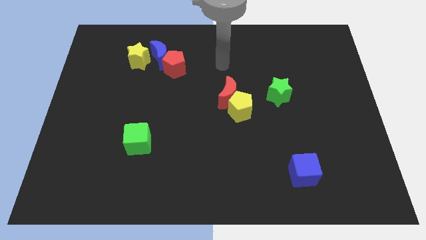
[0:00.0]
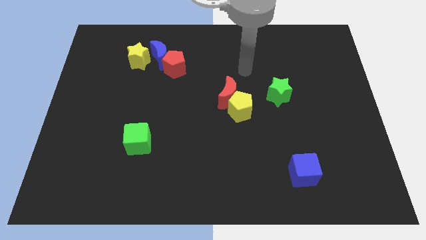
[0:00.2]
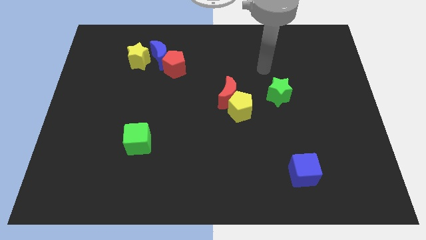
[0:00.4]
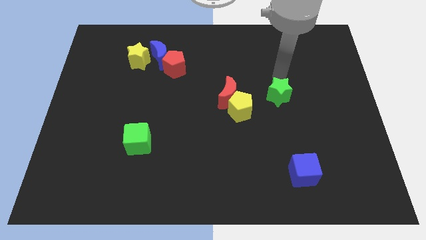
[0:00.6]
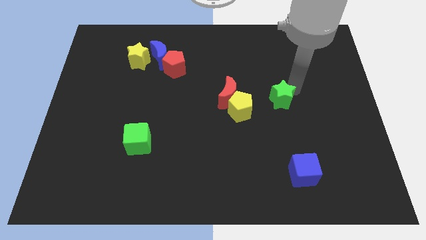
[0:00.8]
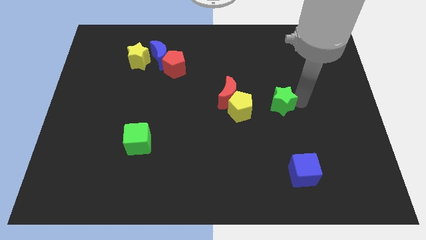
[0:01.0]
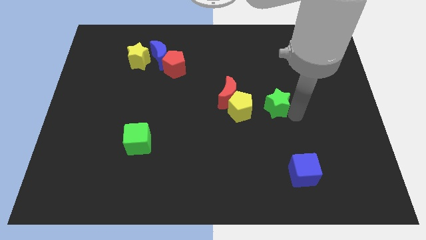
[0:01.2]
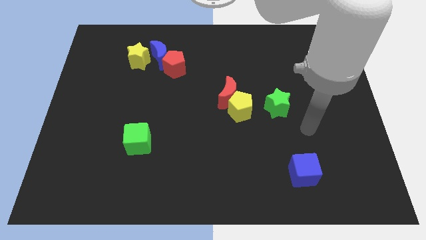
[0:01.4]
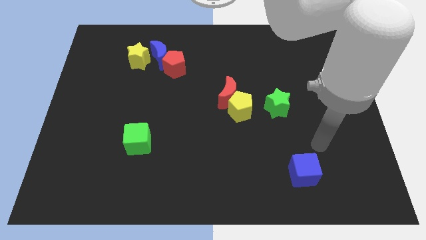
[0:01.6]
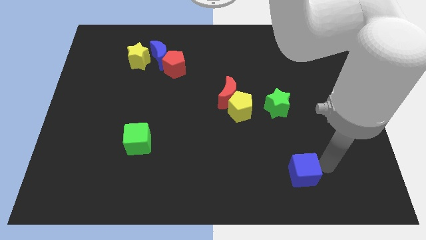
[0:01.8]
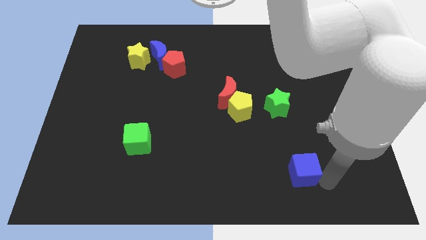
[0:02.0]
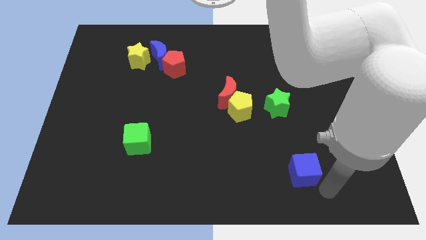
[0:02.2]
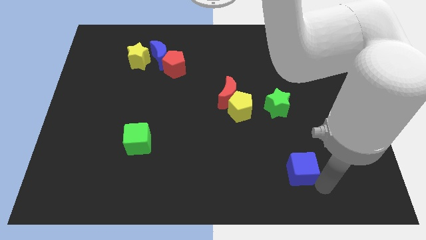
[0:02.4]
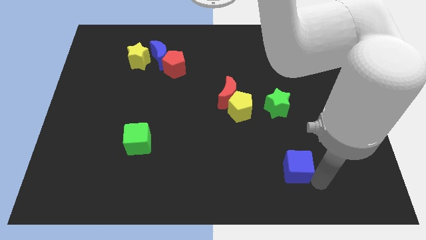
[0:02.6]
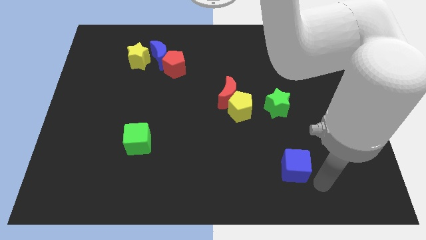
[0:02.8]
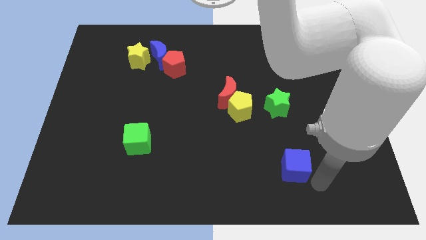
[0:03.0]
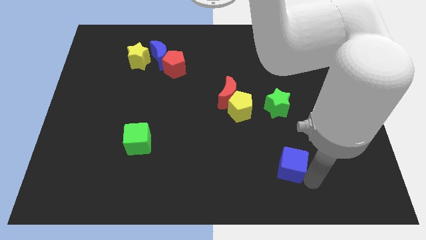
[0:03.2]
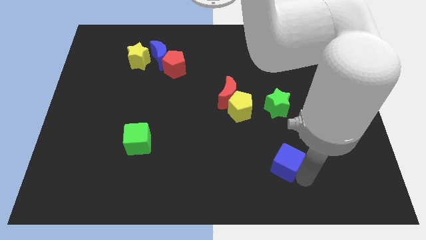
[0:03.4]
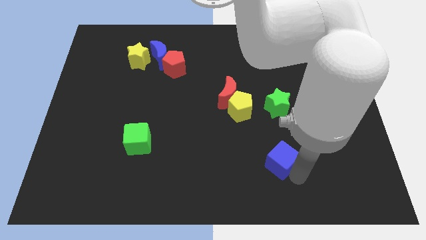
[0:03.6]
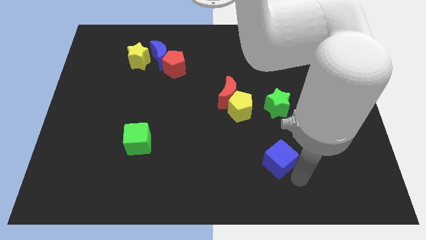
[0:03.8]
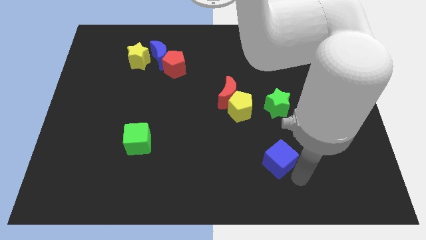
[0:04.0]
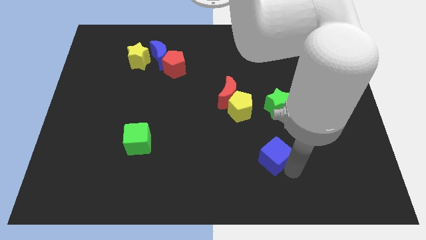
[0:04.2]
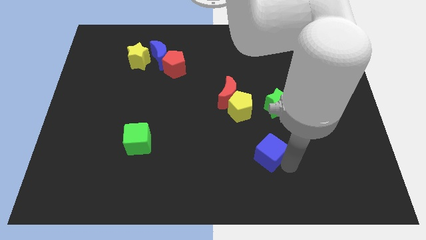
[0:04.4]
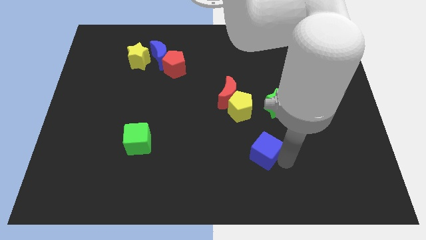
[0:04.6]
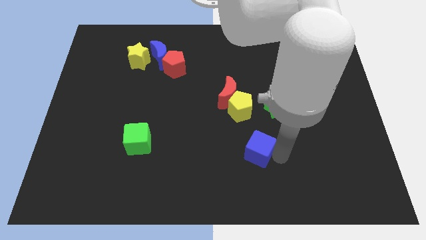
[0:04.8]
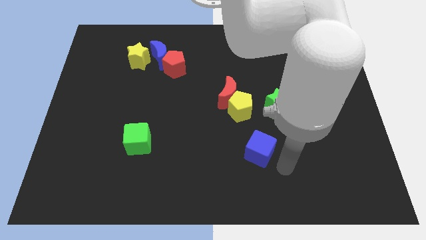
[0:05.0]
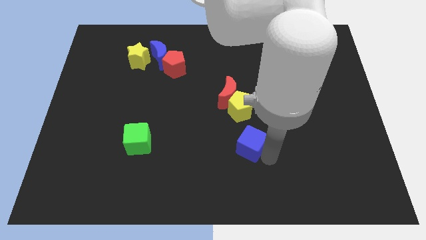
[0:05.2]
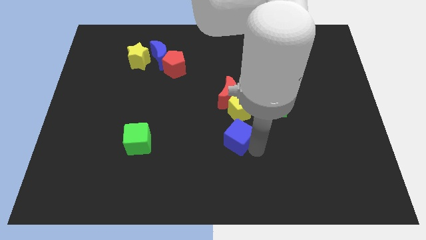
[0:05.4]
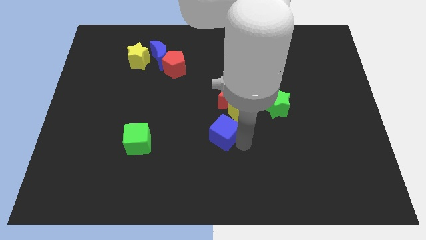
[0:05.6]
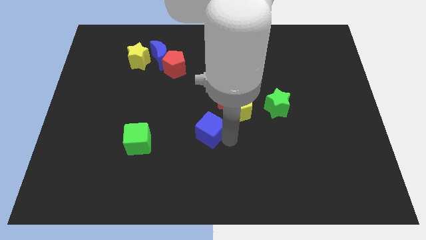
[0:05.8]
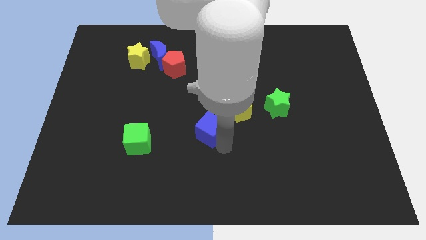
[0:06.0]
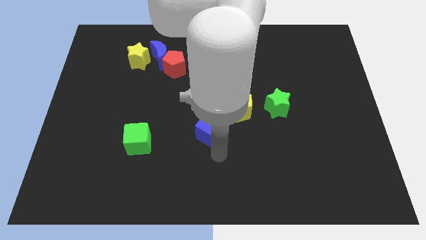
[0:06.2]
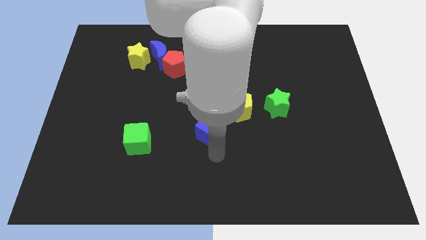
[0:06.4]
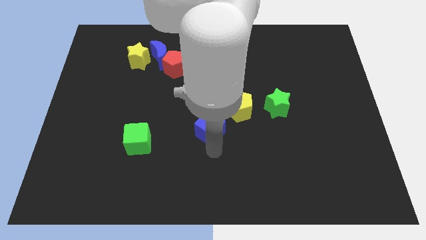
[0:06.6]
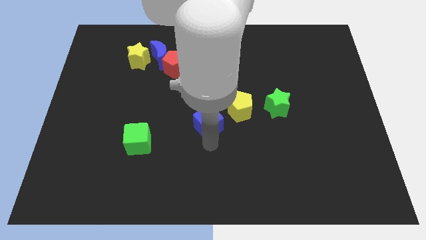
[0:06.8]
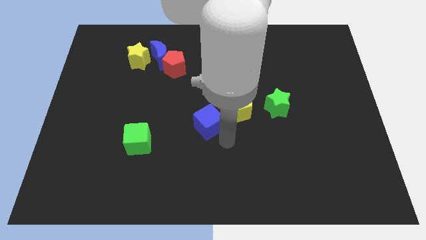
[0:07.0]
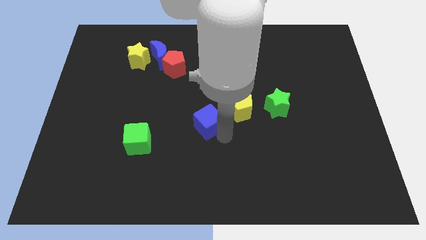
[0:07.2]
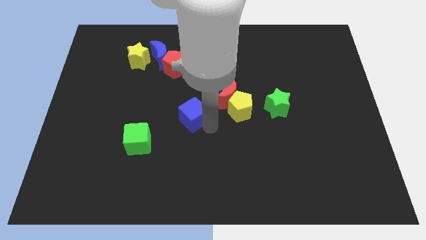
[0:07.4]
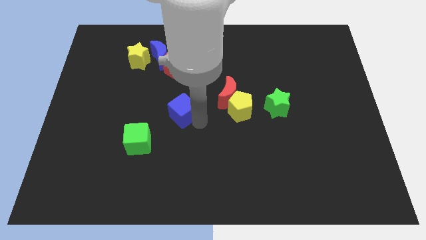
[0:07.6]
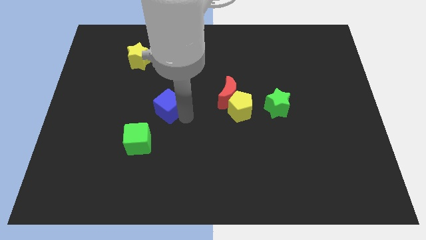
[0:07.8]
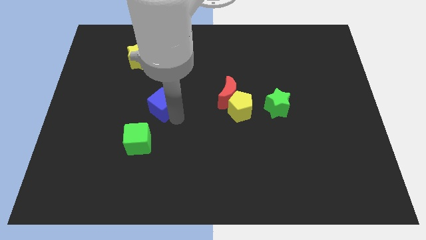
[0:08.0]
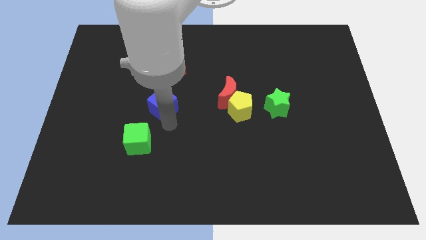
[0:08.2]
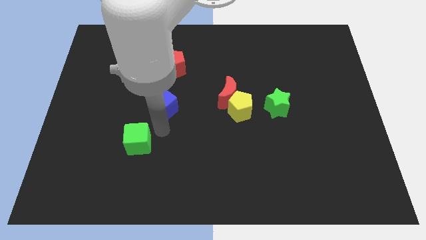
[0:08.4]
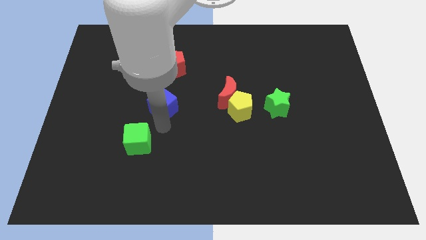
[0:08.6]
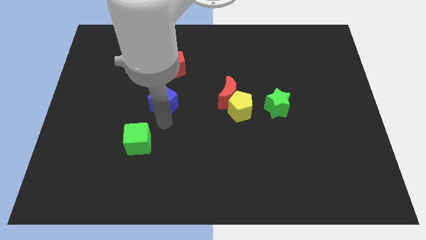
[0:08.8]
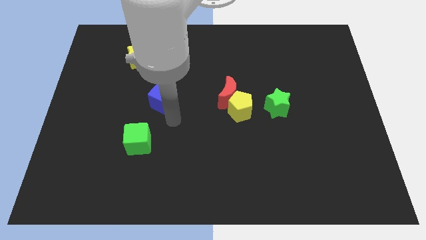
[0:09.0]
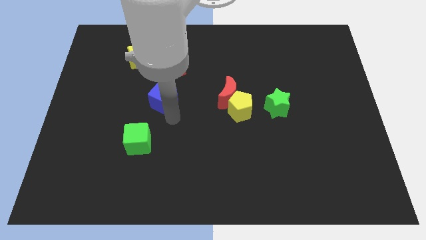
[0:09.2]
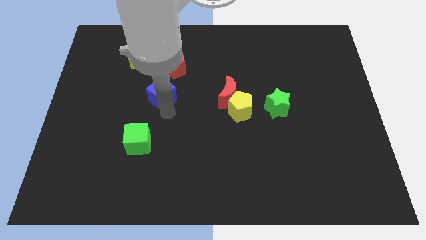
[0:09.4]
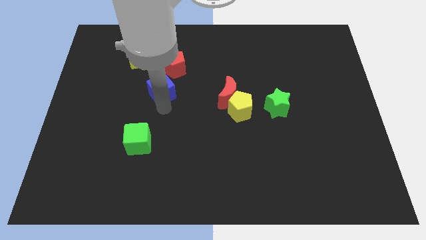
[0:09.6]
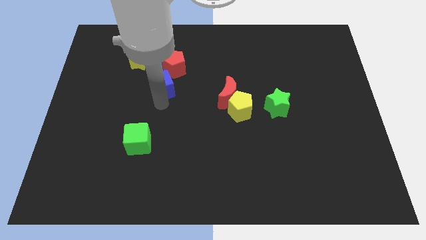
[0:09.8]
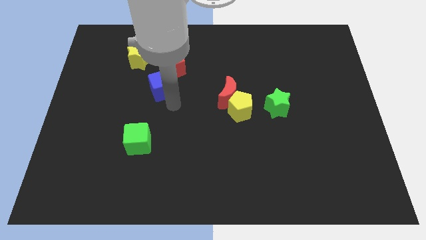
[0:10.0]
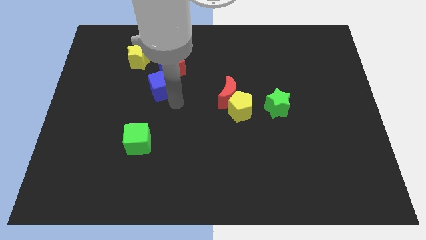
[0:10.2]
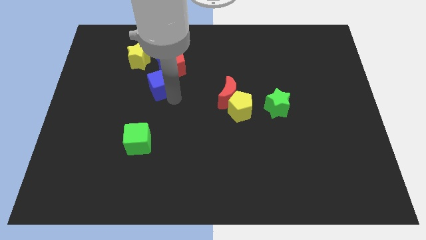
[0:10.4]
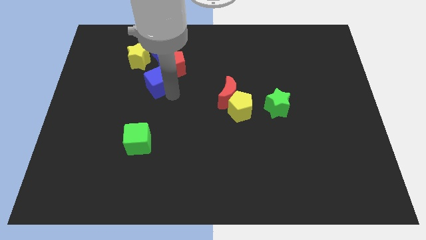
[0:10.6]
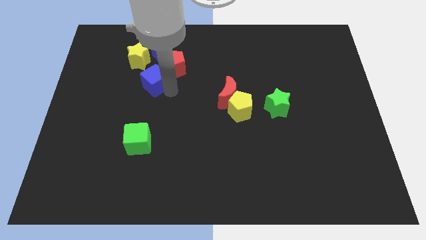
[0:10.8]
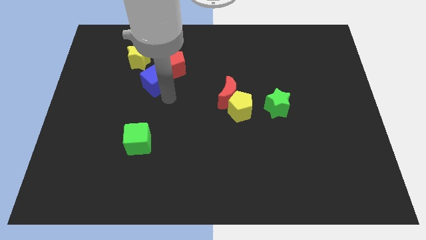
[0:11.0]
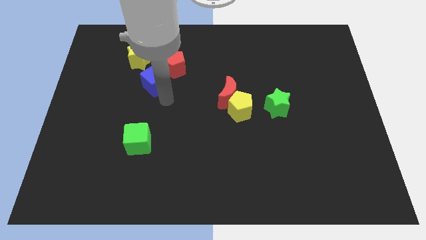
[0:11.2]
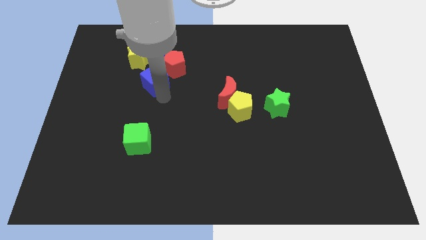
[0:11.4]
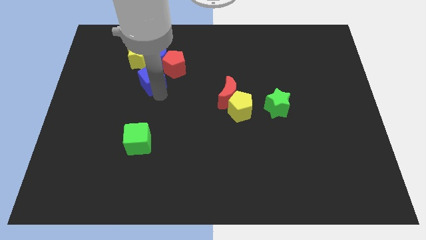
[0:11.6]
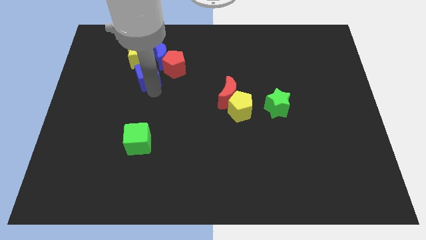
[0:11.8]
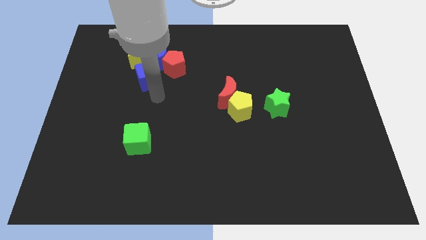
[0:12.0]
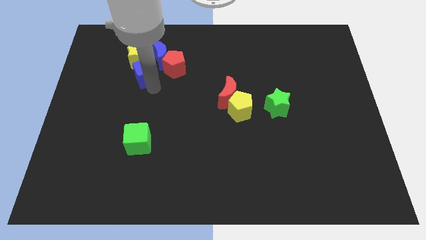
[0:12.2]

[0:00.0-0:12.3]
move the blue cube next to the yellow star

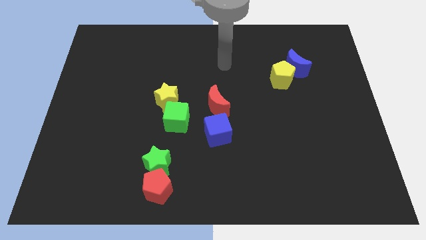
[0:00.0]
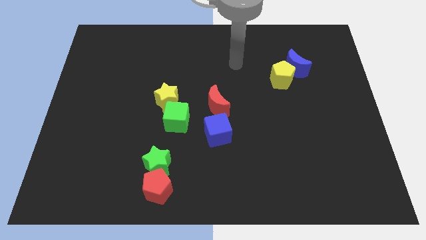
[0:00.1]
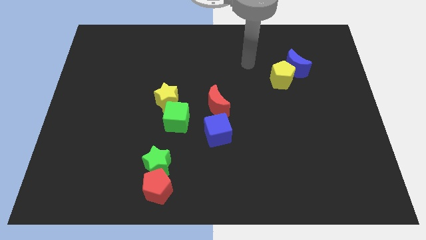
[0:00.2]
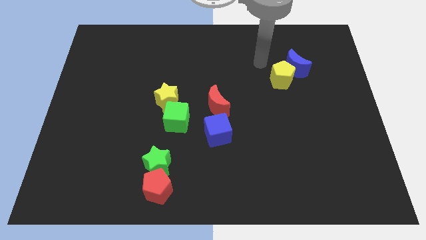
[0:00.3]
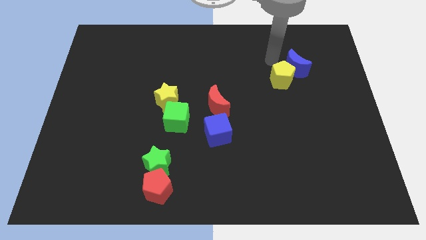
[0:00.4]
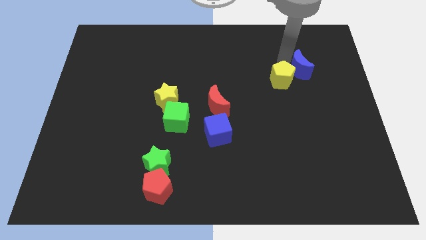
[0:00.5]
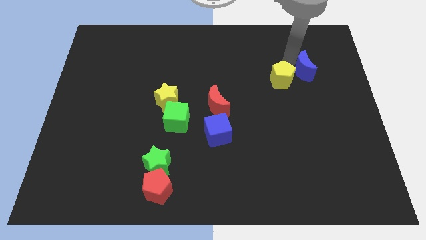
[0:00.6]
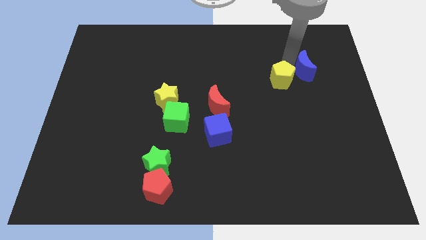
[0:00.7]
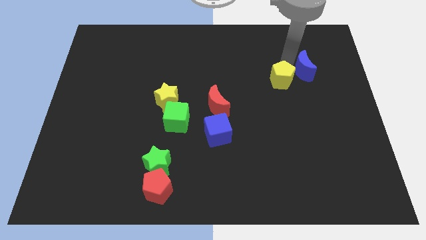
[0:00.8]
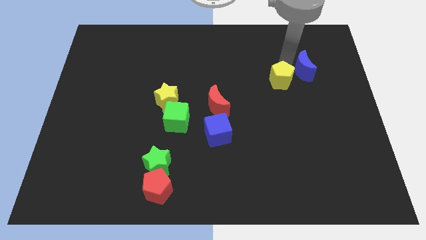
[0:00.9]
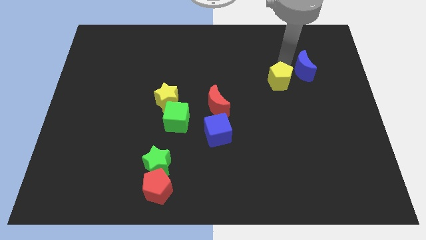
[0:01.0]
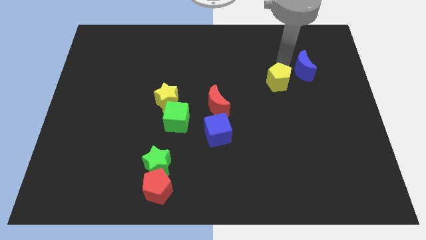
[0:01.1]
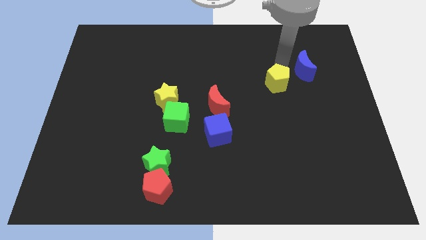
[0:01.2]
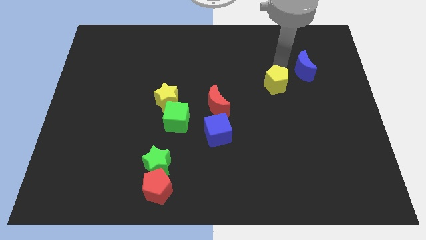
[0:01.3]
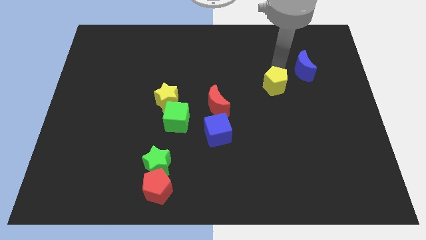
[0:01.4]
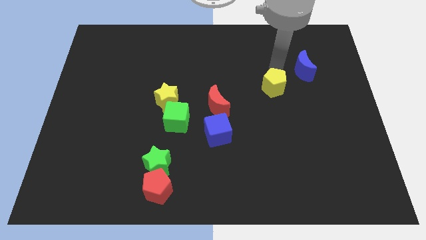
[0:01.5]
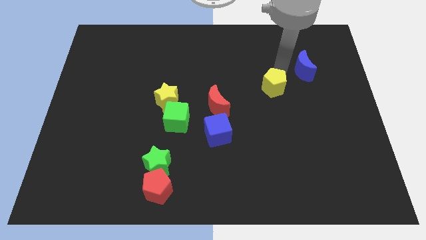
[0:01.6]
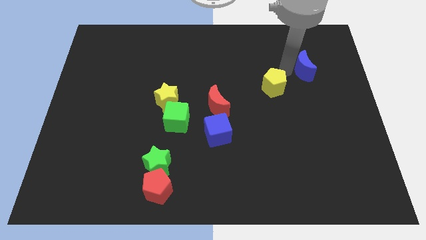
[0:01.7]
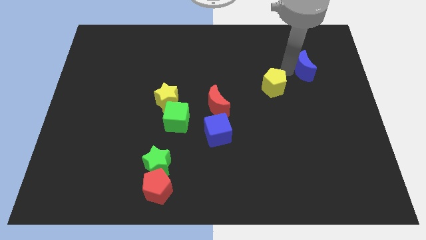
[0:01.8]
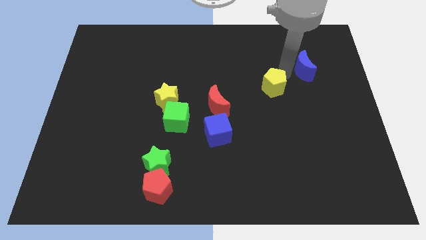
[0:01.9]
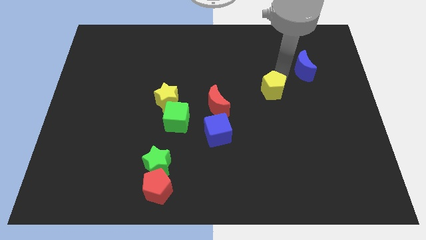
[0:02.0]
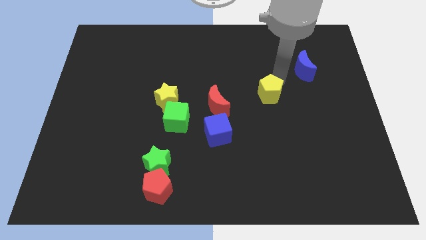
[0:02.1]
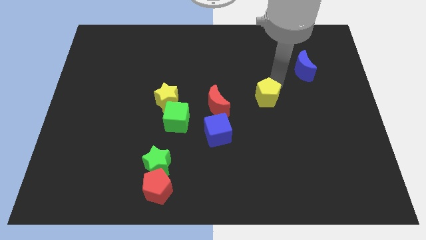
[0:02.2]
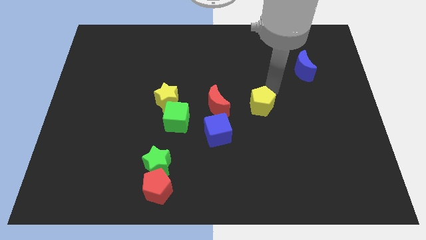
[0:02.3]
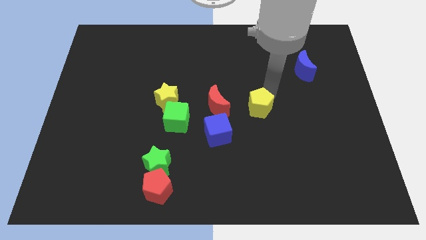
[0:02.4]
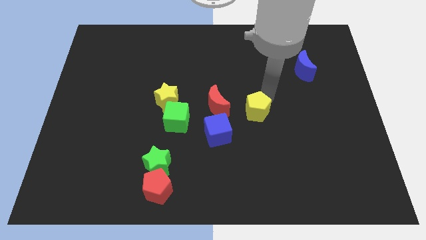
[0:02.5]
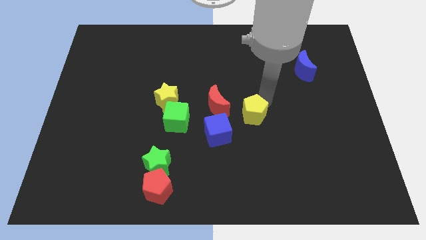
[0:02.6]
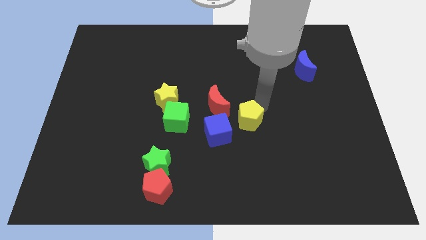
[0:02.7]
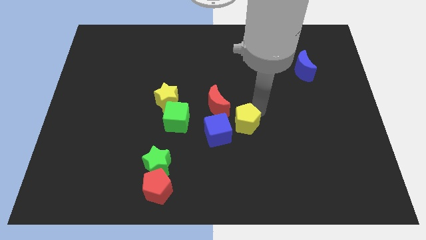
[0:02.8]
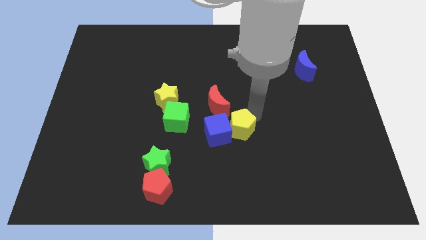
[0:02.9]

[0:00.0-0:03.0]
put the yellow pentagon to the blue cube
